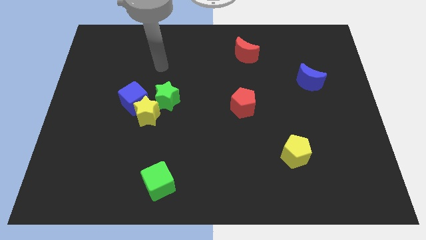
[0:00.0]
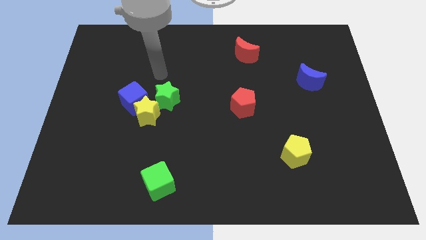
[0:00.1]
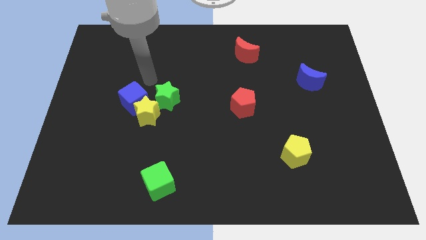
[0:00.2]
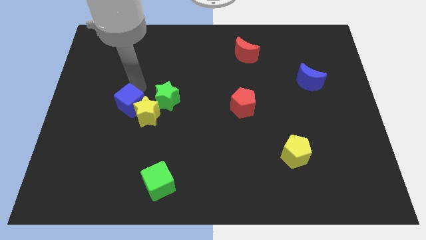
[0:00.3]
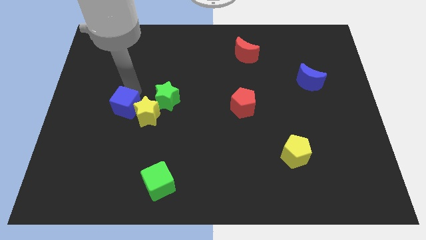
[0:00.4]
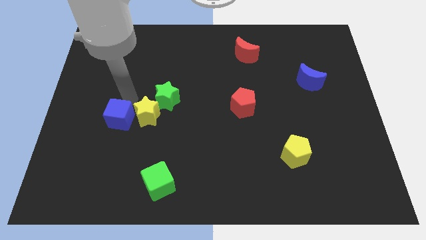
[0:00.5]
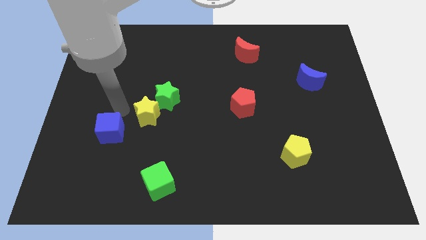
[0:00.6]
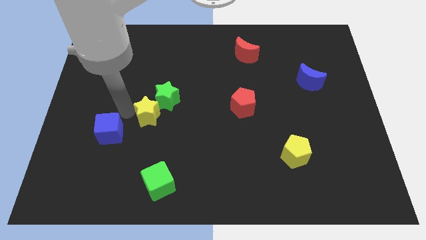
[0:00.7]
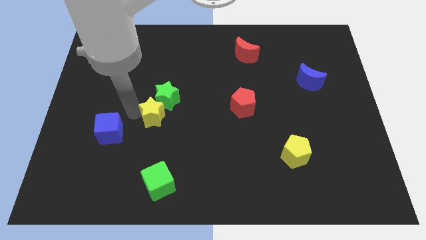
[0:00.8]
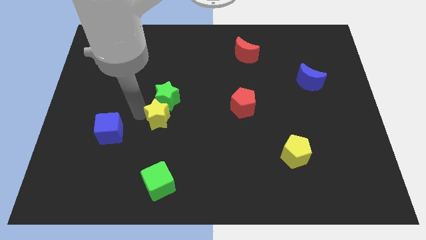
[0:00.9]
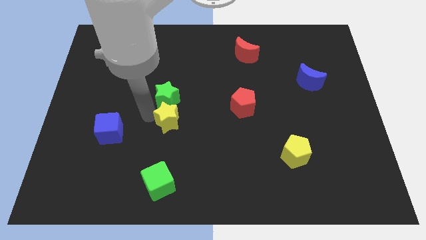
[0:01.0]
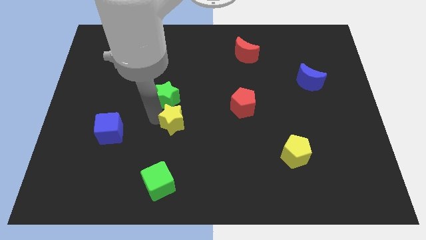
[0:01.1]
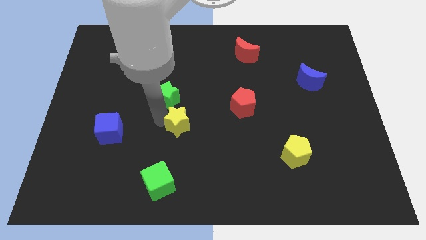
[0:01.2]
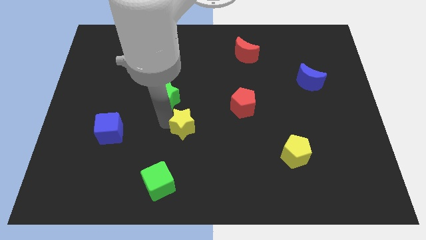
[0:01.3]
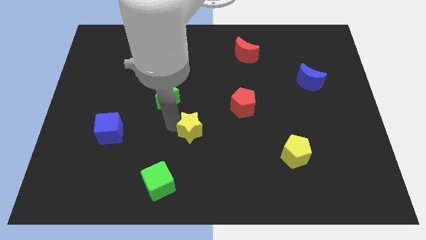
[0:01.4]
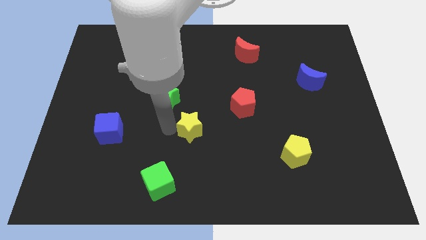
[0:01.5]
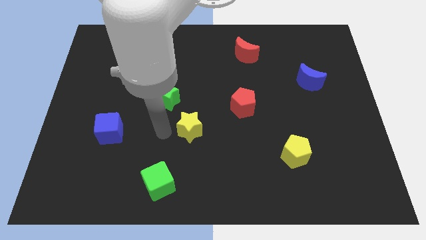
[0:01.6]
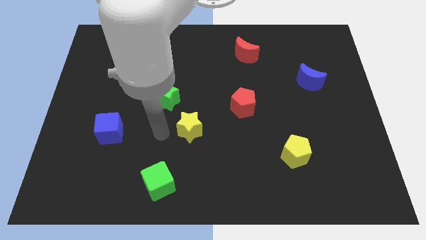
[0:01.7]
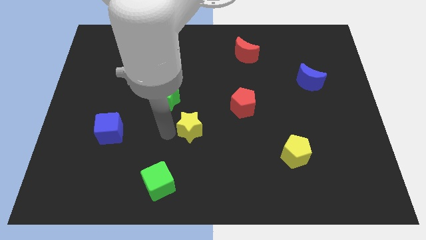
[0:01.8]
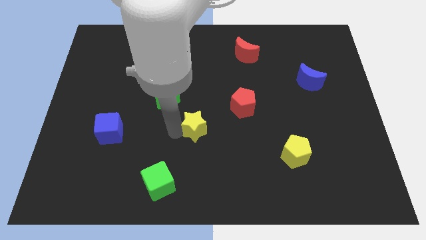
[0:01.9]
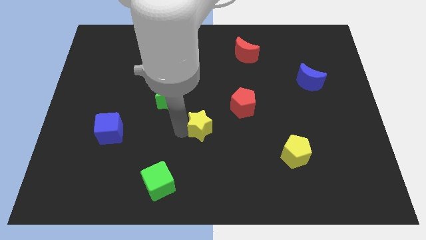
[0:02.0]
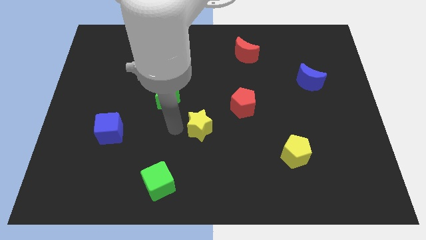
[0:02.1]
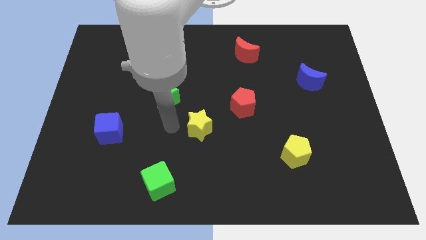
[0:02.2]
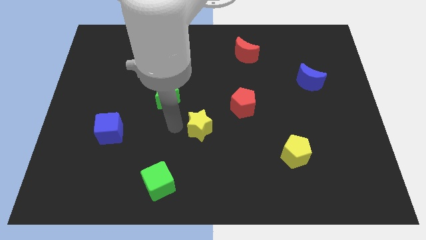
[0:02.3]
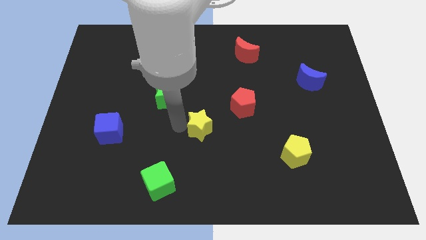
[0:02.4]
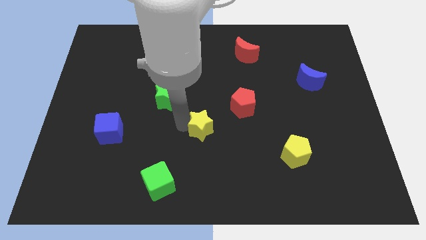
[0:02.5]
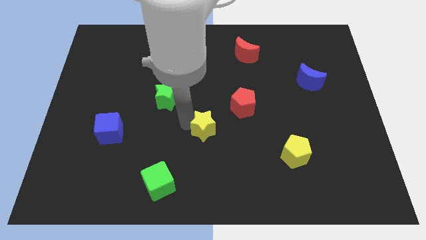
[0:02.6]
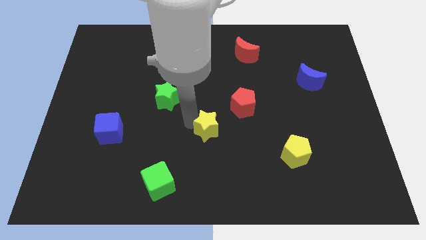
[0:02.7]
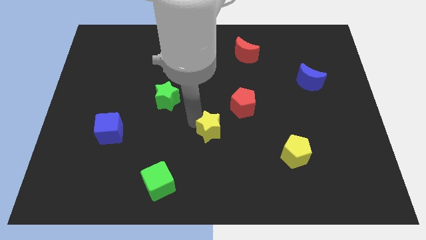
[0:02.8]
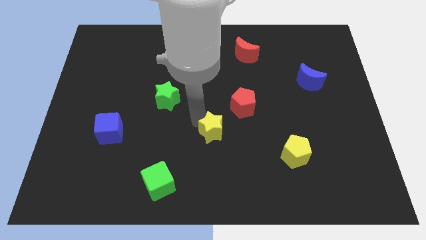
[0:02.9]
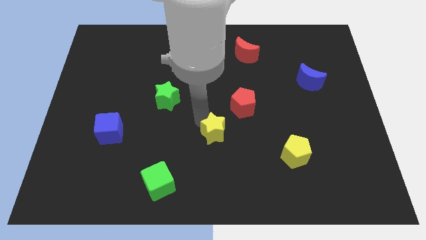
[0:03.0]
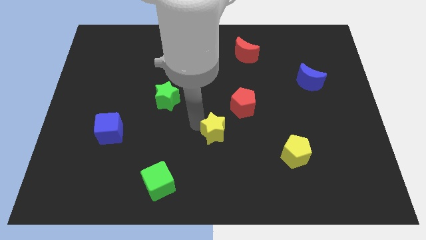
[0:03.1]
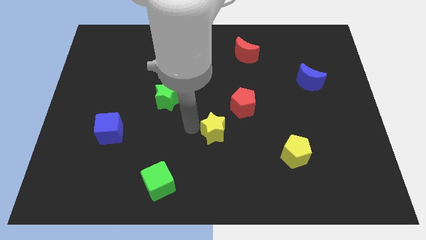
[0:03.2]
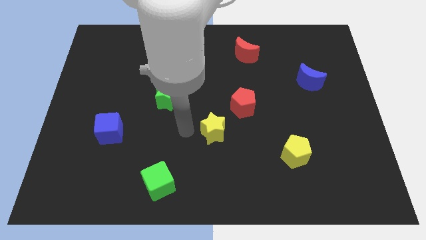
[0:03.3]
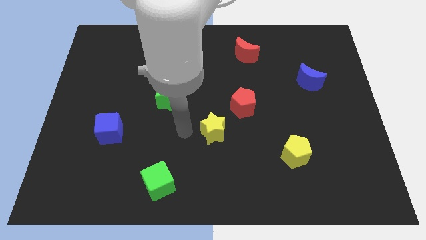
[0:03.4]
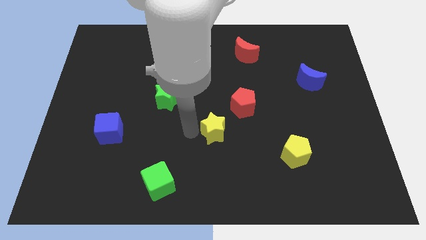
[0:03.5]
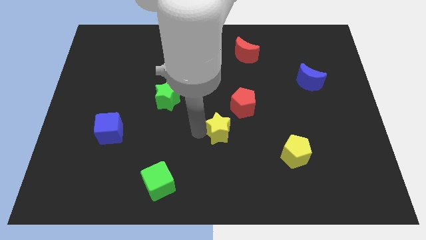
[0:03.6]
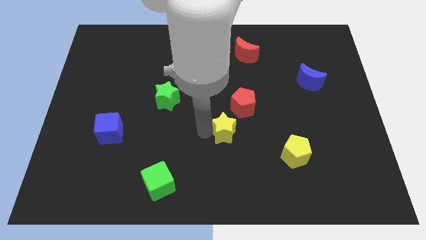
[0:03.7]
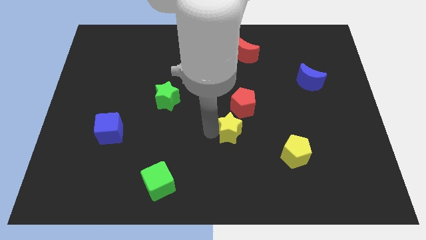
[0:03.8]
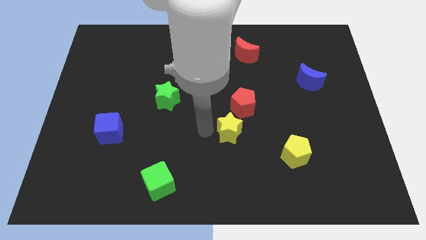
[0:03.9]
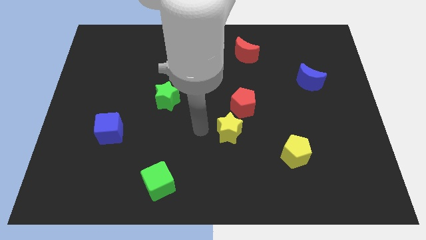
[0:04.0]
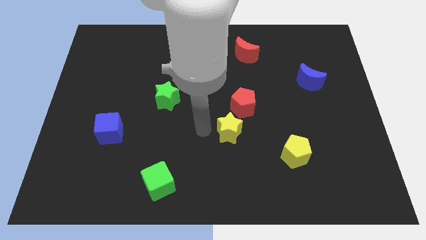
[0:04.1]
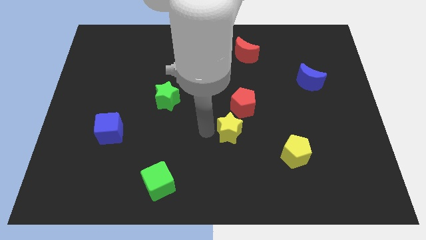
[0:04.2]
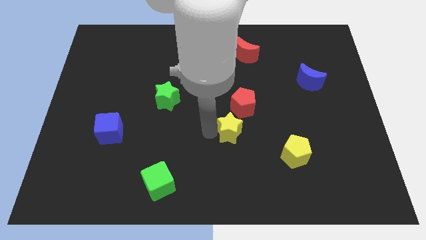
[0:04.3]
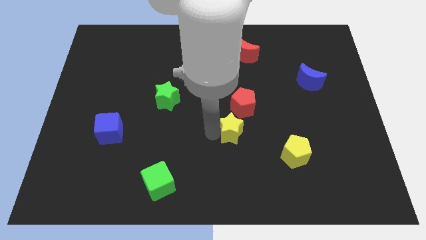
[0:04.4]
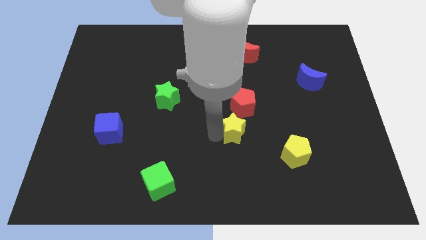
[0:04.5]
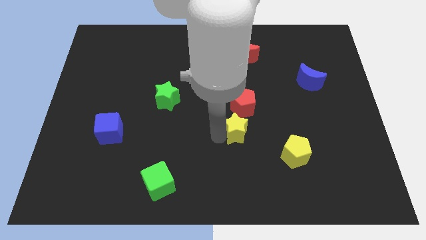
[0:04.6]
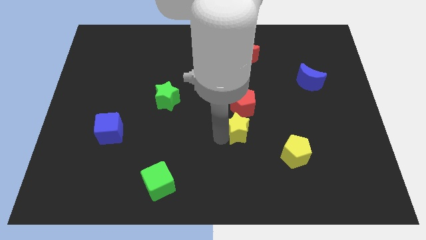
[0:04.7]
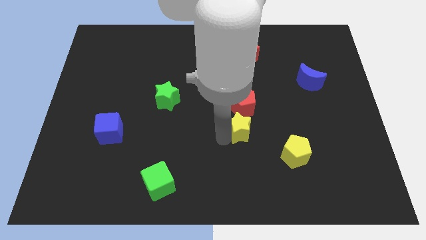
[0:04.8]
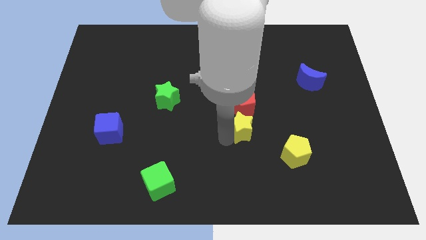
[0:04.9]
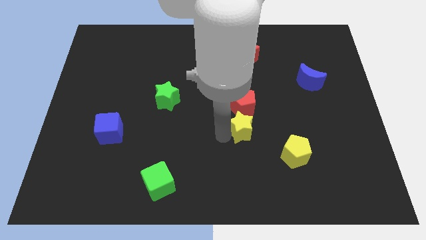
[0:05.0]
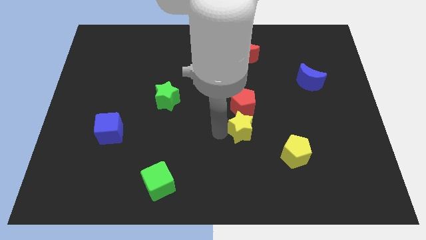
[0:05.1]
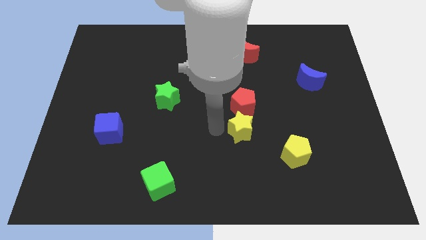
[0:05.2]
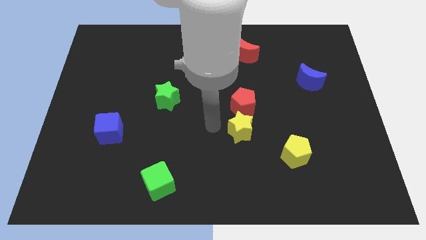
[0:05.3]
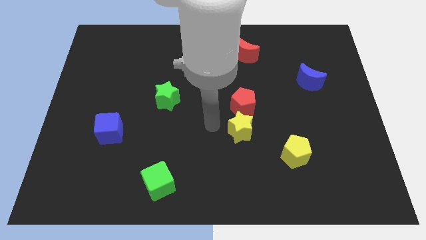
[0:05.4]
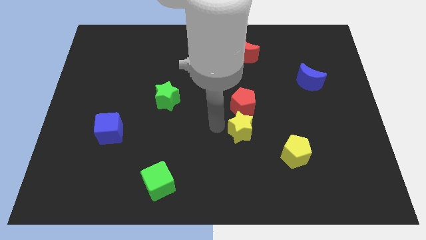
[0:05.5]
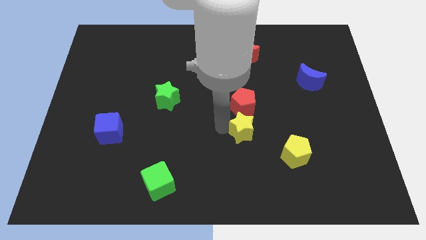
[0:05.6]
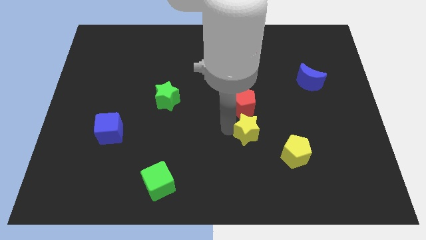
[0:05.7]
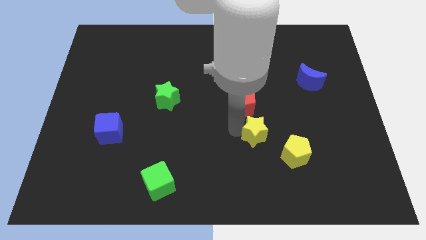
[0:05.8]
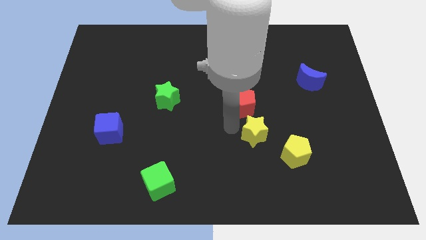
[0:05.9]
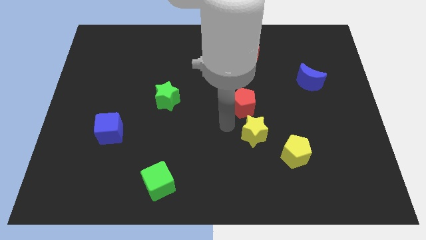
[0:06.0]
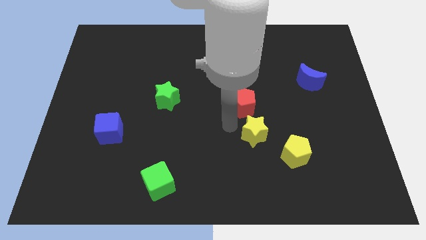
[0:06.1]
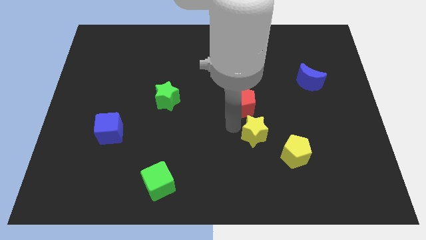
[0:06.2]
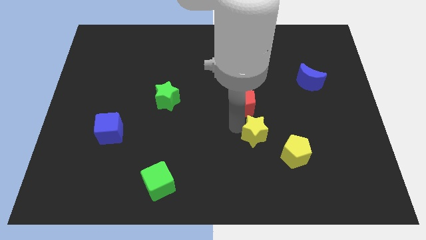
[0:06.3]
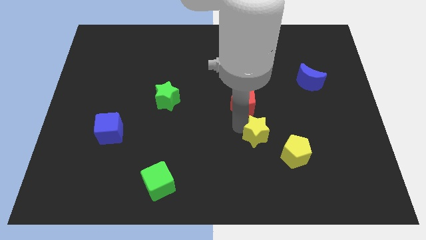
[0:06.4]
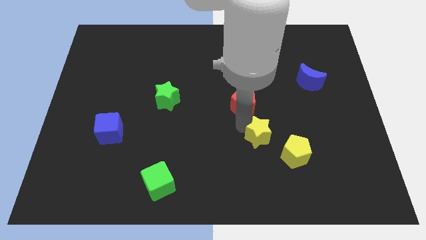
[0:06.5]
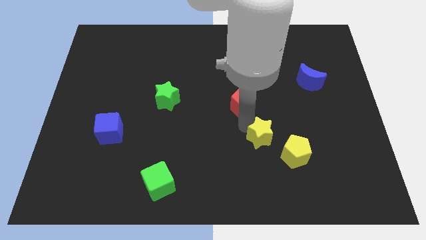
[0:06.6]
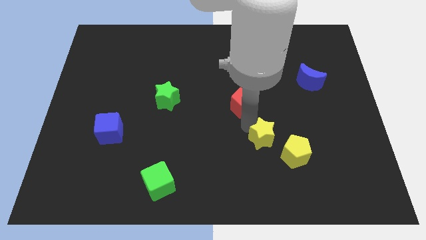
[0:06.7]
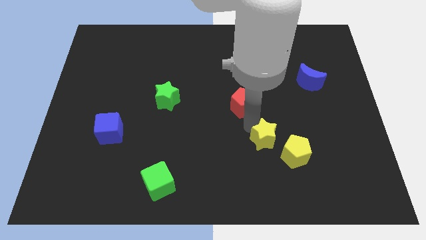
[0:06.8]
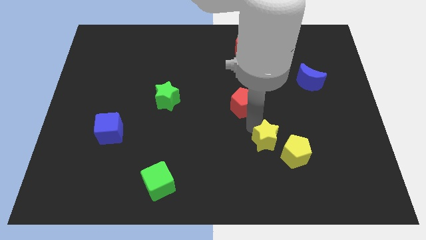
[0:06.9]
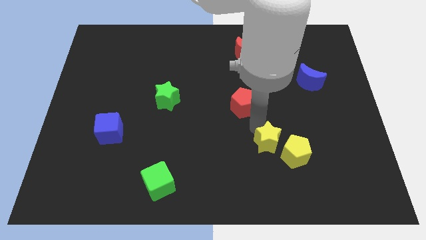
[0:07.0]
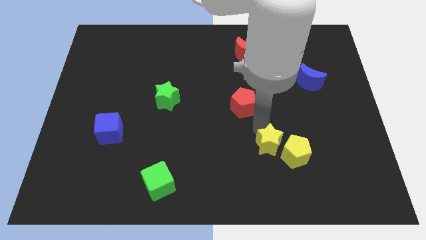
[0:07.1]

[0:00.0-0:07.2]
put the yellow star towards the yellow pentagon
